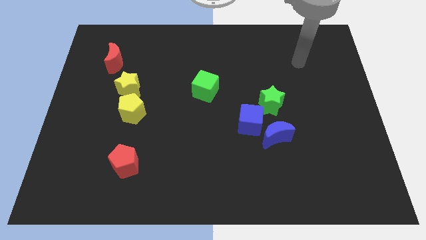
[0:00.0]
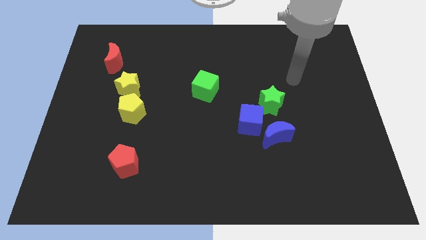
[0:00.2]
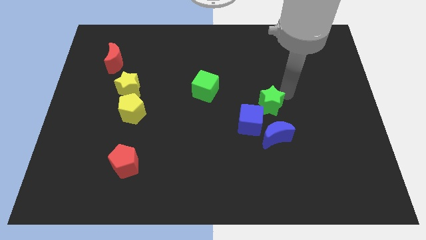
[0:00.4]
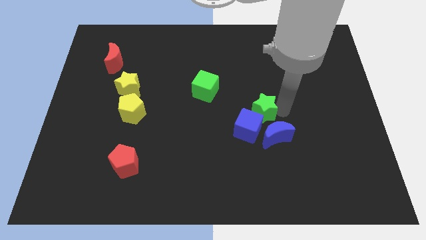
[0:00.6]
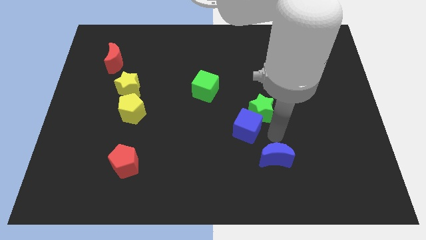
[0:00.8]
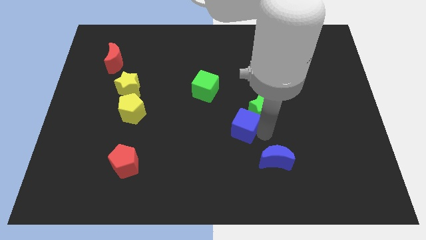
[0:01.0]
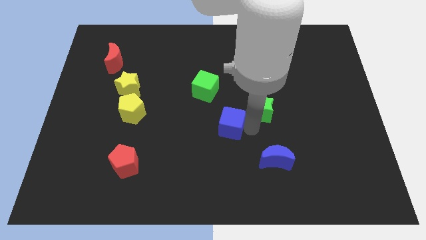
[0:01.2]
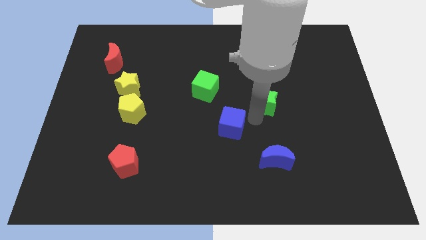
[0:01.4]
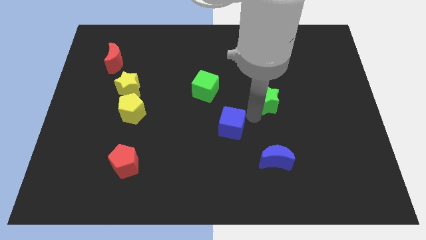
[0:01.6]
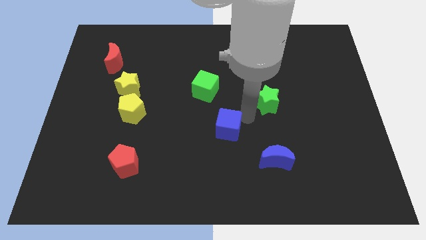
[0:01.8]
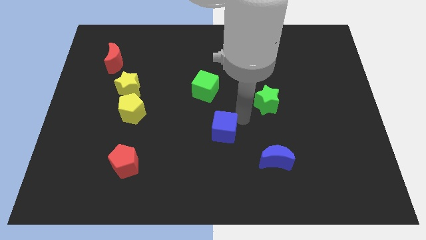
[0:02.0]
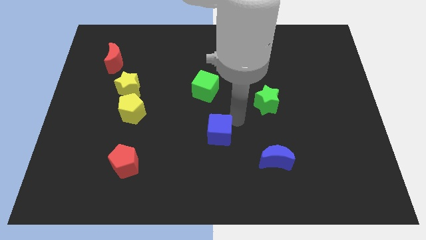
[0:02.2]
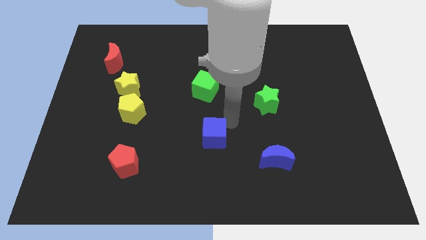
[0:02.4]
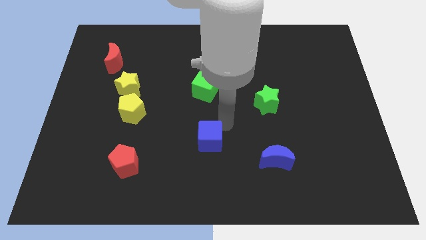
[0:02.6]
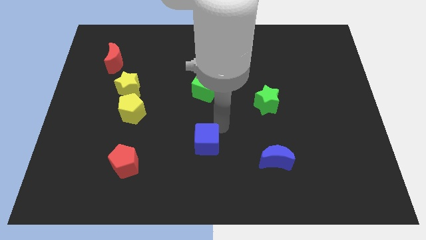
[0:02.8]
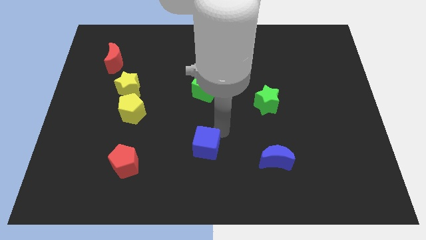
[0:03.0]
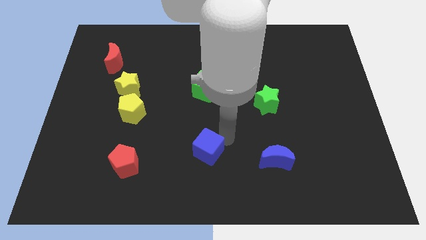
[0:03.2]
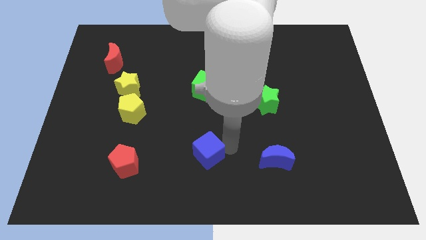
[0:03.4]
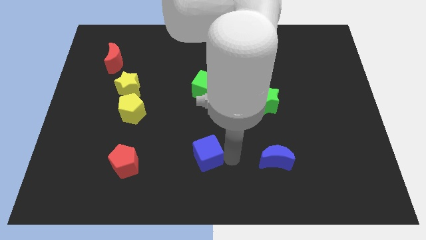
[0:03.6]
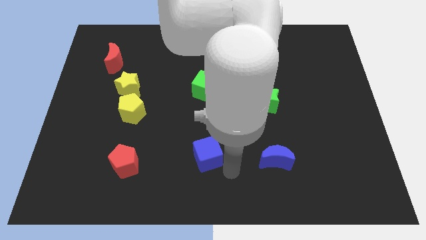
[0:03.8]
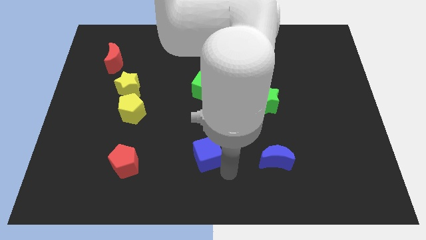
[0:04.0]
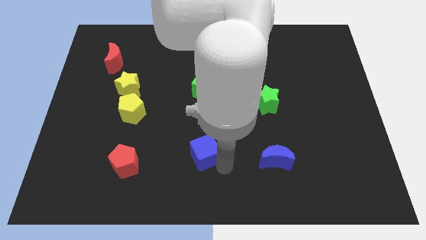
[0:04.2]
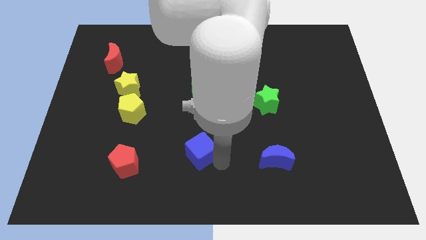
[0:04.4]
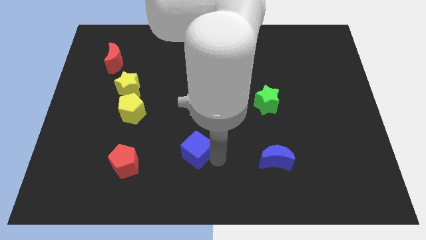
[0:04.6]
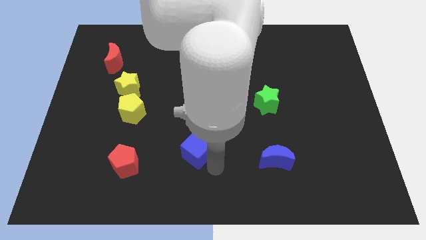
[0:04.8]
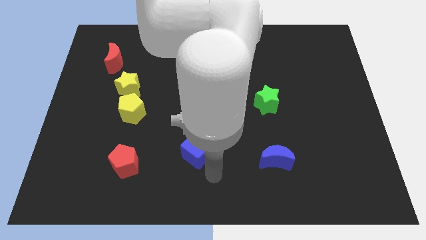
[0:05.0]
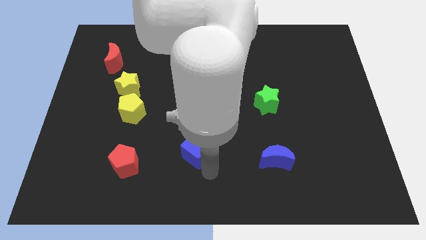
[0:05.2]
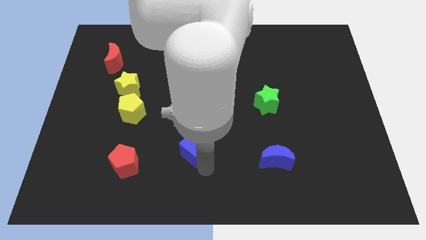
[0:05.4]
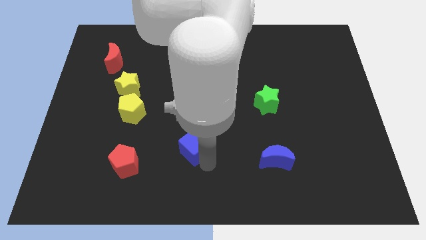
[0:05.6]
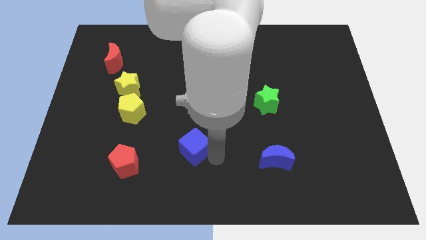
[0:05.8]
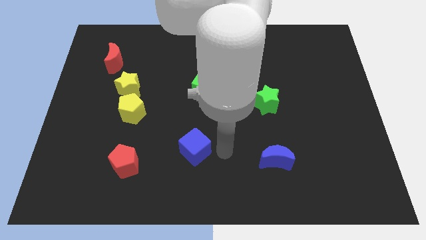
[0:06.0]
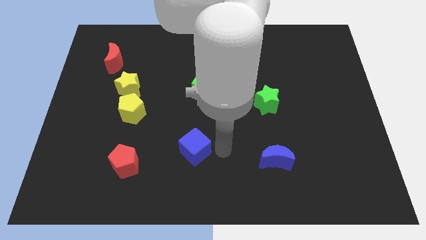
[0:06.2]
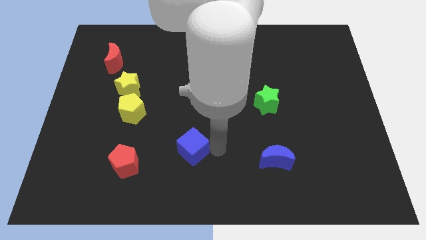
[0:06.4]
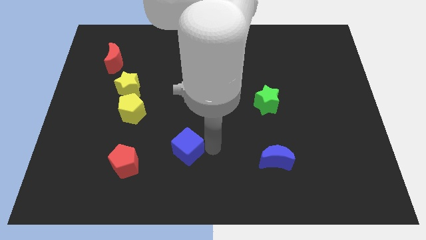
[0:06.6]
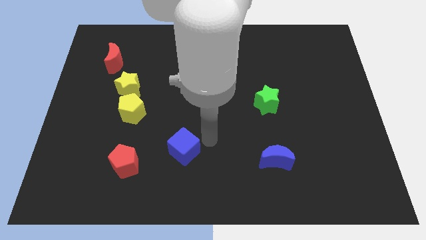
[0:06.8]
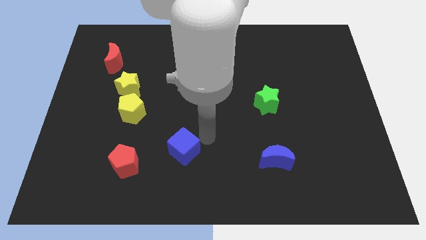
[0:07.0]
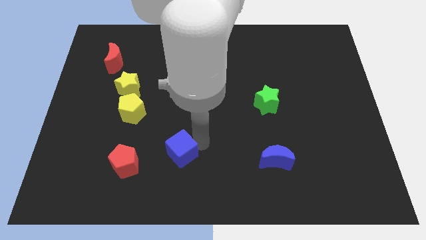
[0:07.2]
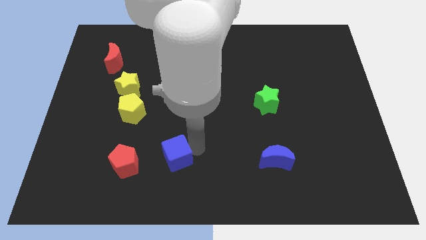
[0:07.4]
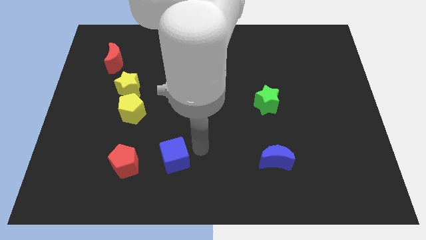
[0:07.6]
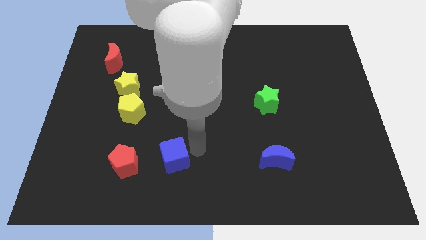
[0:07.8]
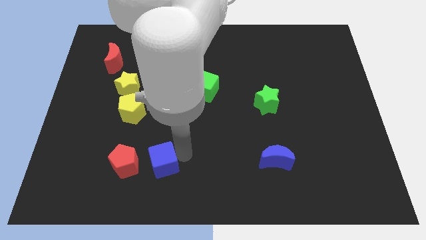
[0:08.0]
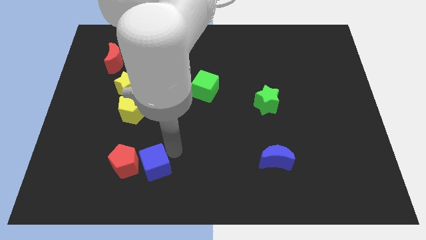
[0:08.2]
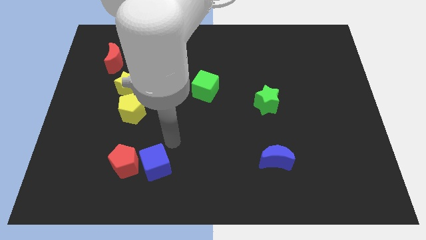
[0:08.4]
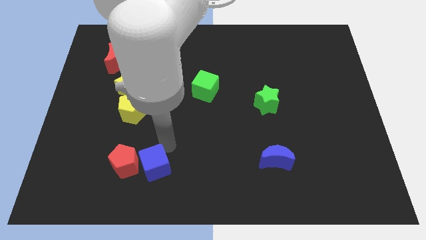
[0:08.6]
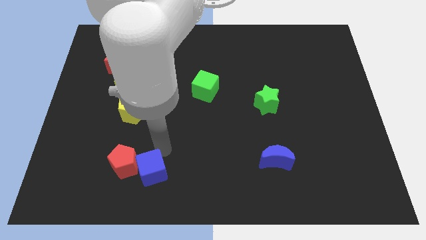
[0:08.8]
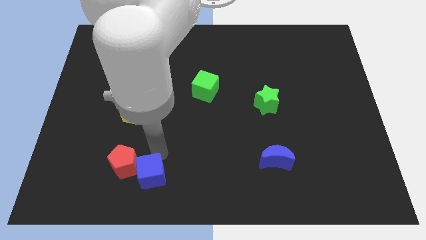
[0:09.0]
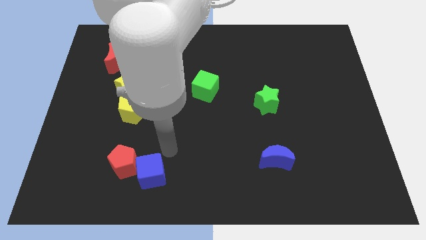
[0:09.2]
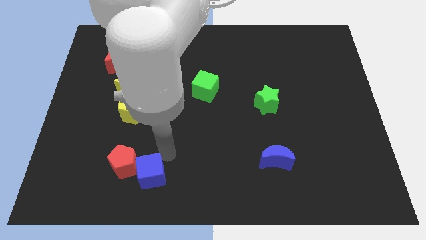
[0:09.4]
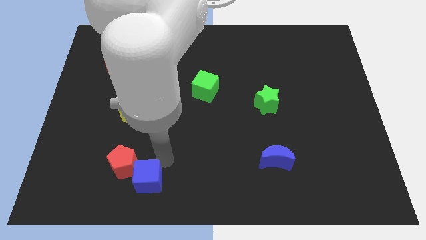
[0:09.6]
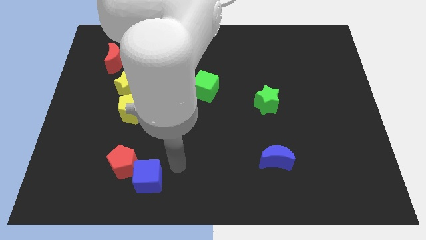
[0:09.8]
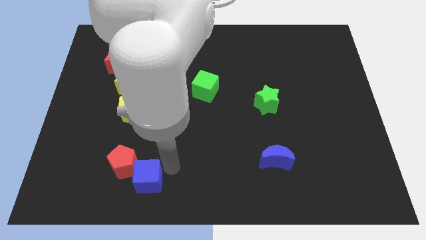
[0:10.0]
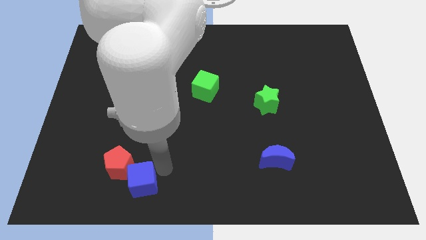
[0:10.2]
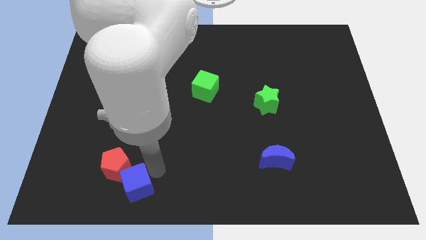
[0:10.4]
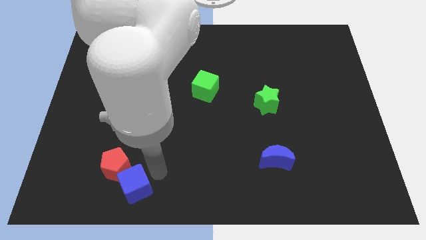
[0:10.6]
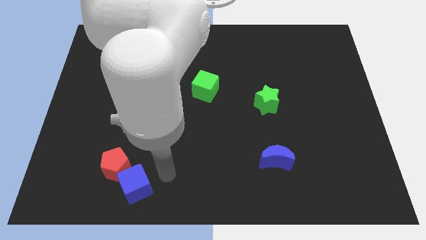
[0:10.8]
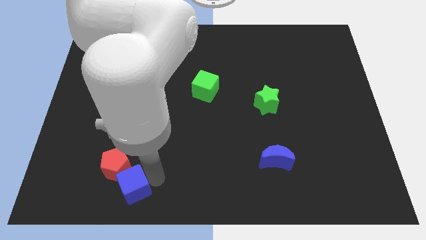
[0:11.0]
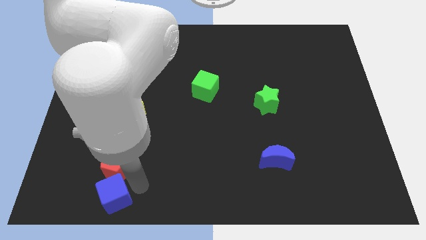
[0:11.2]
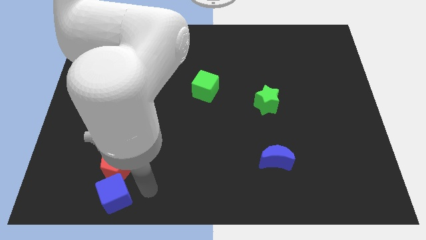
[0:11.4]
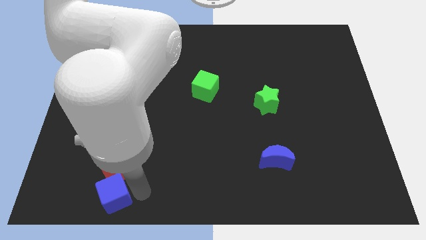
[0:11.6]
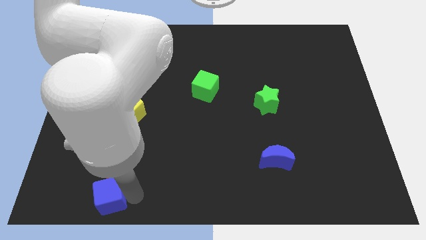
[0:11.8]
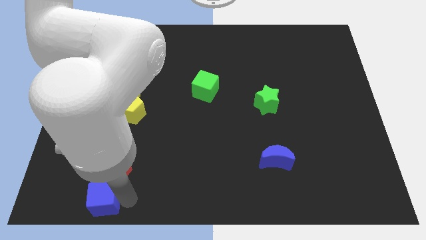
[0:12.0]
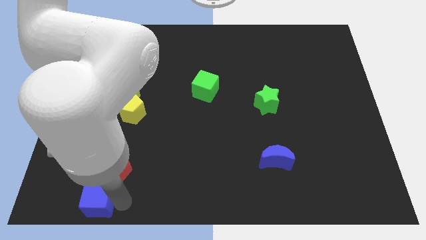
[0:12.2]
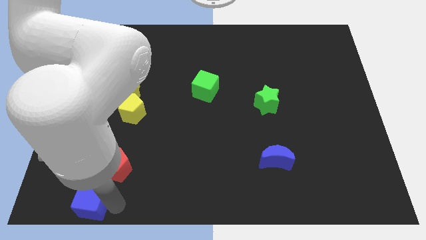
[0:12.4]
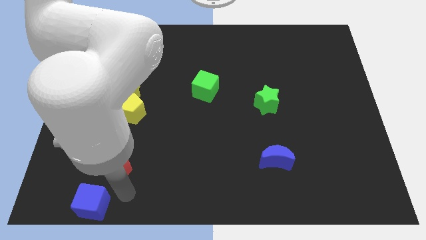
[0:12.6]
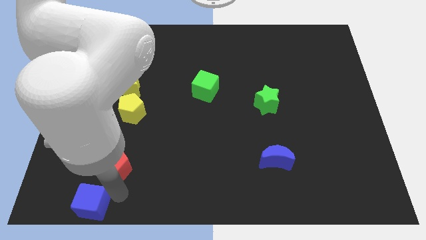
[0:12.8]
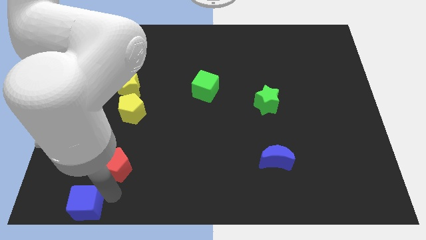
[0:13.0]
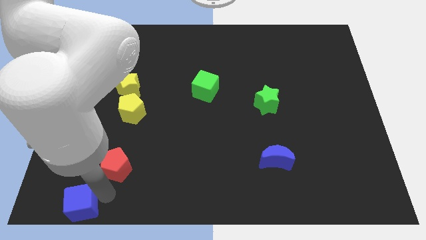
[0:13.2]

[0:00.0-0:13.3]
move the blue cube to the lower left corner

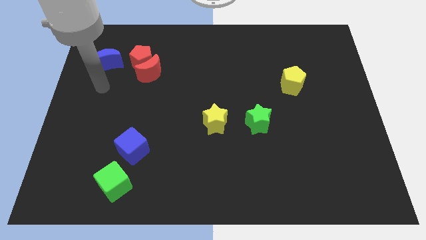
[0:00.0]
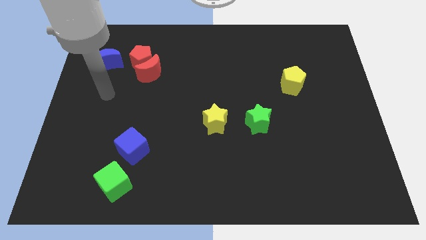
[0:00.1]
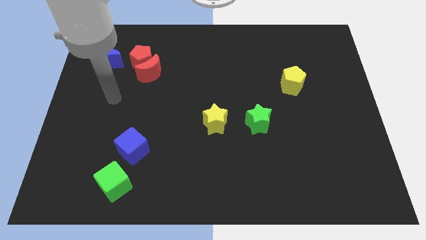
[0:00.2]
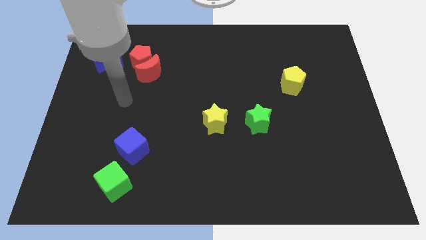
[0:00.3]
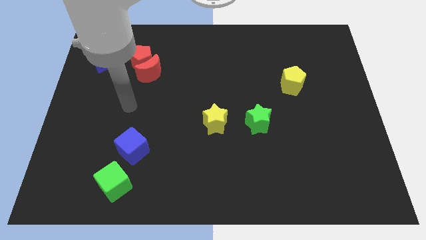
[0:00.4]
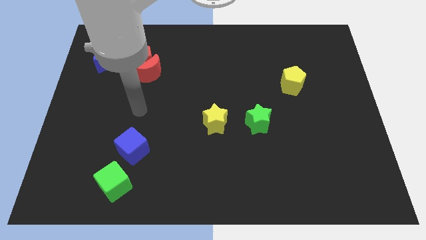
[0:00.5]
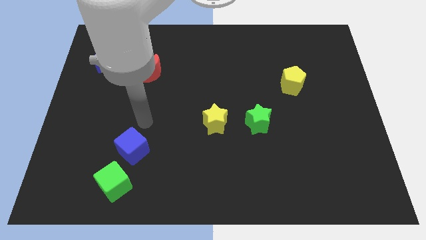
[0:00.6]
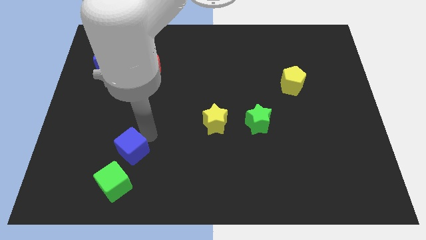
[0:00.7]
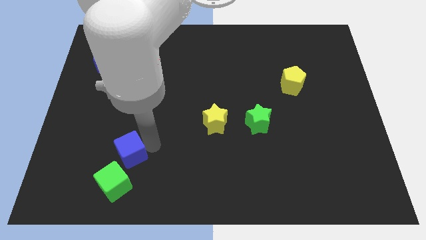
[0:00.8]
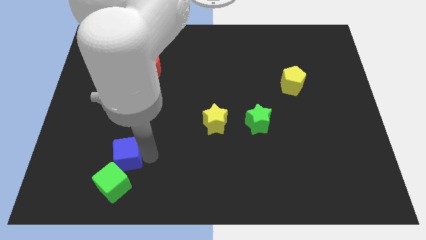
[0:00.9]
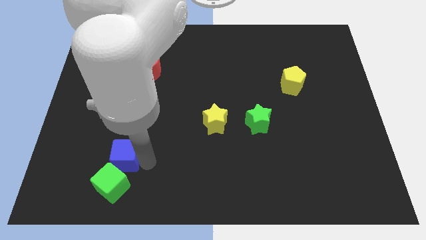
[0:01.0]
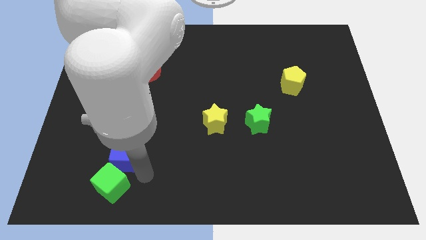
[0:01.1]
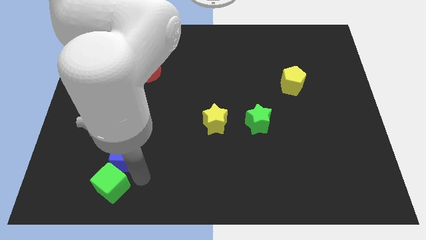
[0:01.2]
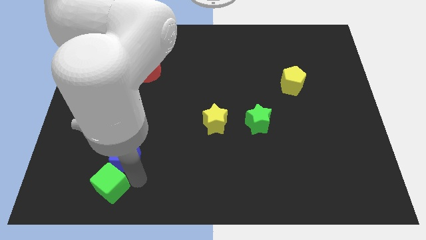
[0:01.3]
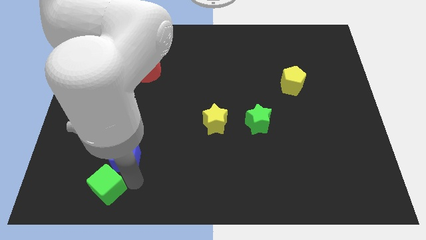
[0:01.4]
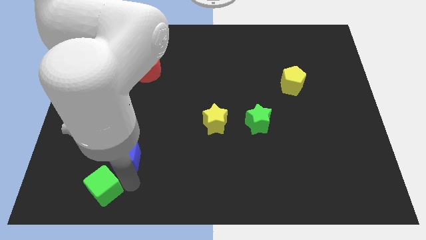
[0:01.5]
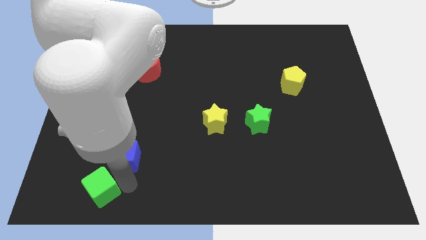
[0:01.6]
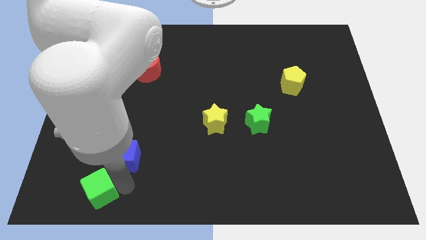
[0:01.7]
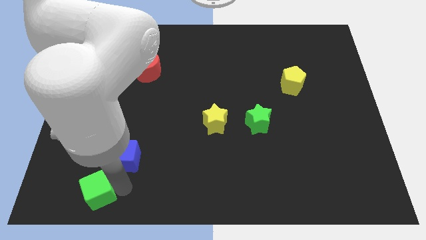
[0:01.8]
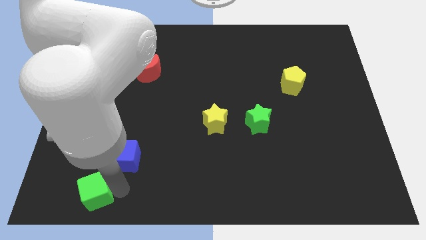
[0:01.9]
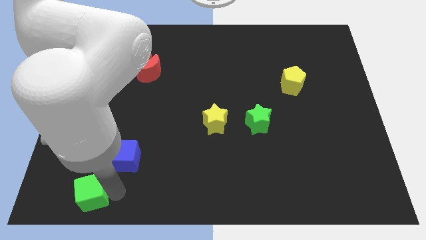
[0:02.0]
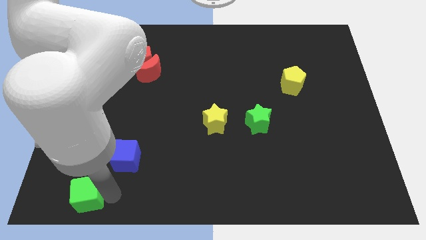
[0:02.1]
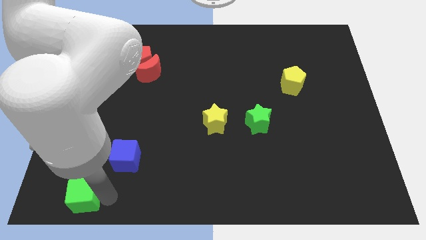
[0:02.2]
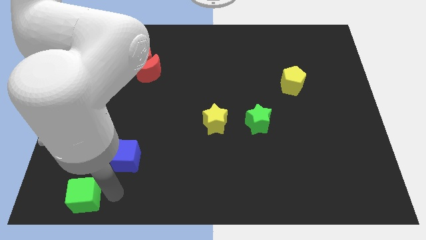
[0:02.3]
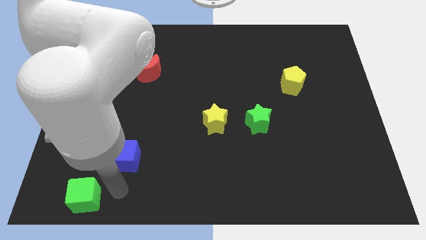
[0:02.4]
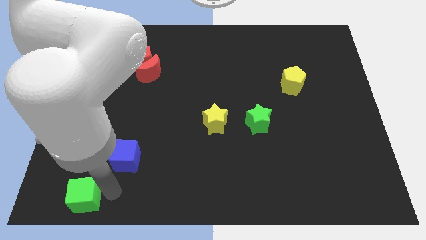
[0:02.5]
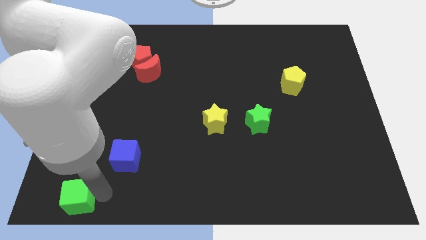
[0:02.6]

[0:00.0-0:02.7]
put the green cube to the bottom left corner
